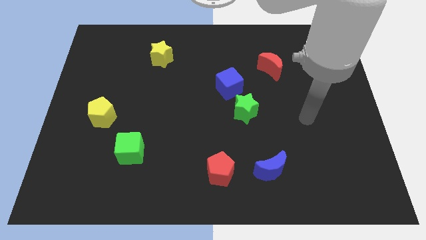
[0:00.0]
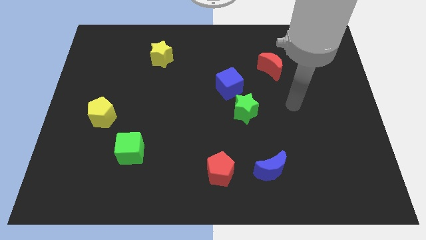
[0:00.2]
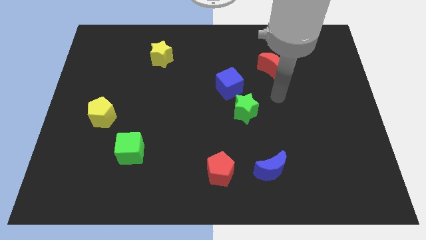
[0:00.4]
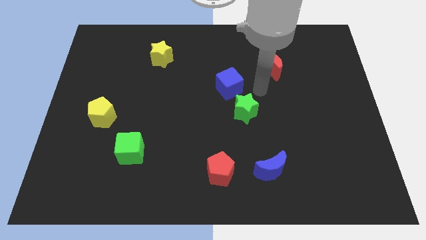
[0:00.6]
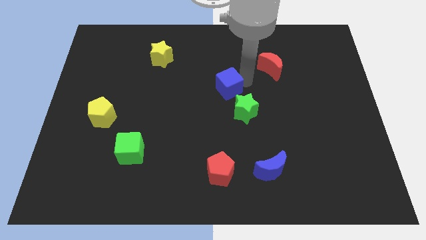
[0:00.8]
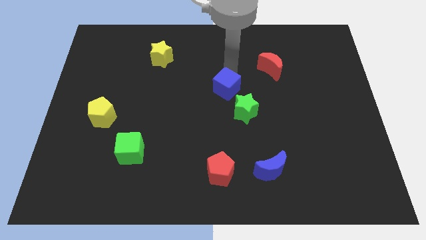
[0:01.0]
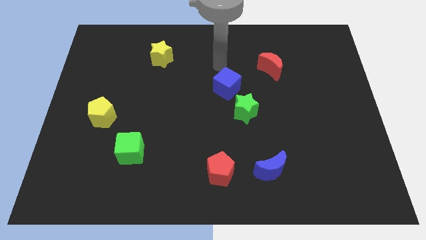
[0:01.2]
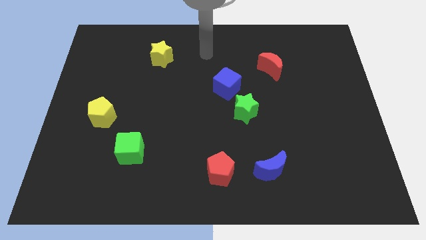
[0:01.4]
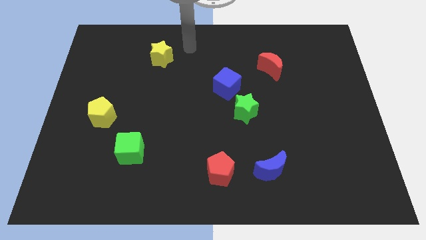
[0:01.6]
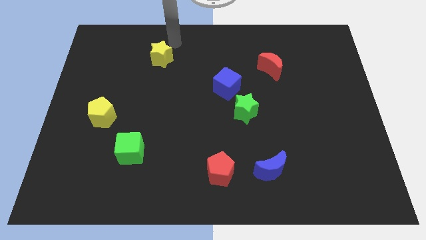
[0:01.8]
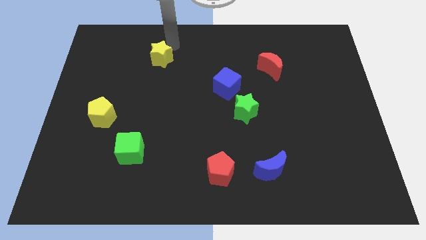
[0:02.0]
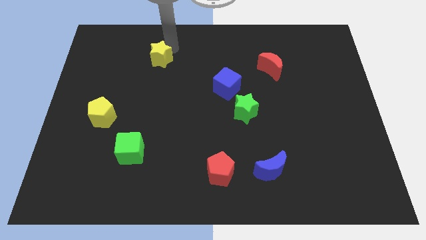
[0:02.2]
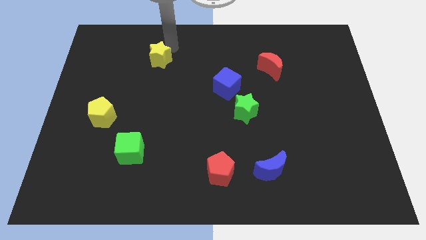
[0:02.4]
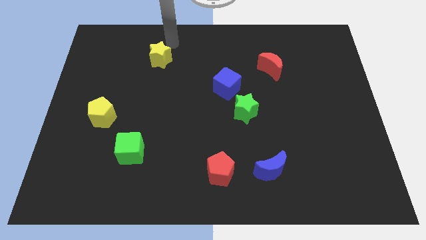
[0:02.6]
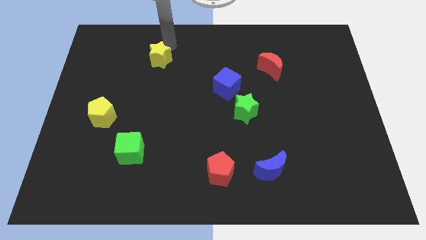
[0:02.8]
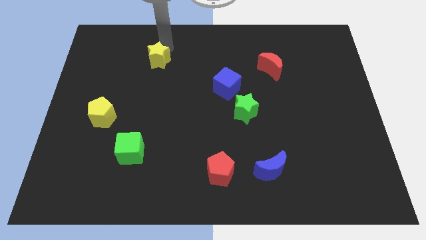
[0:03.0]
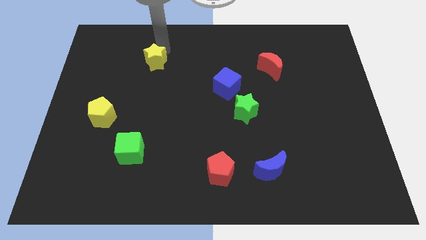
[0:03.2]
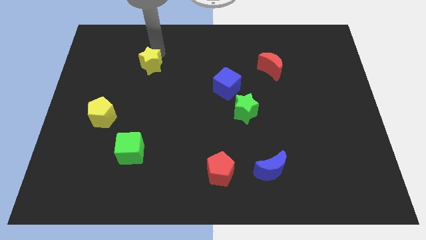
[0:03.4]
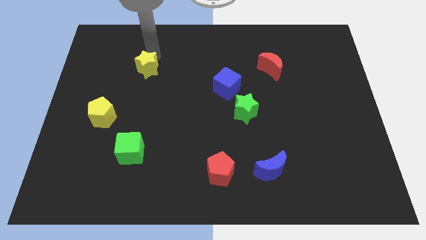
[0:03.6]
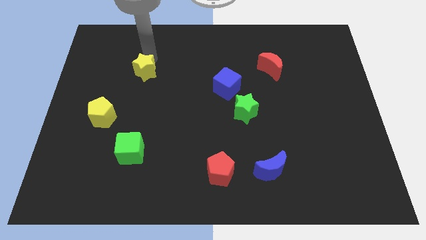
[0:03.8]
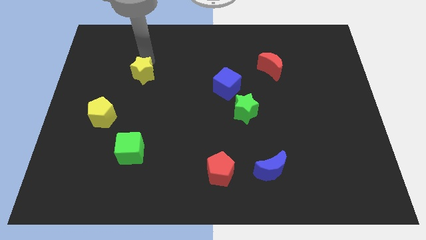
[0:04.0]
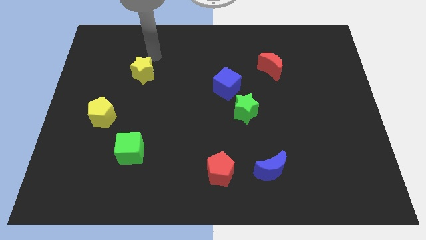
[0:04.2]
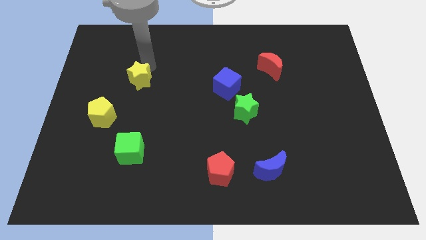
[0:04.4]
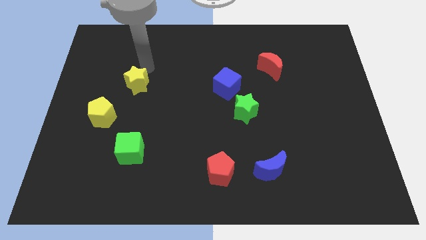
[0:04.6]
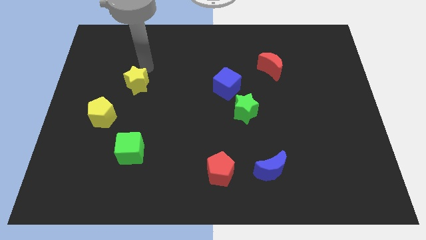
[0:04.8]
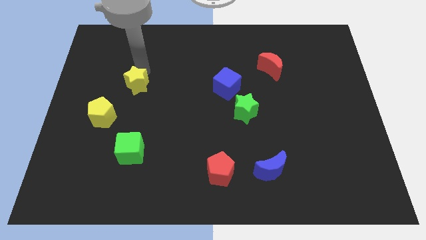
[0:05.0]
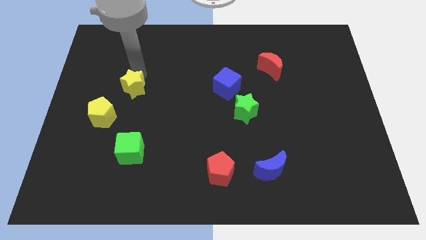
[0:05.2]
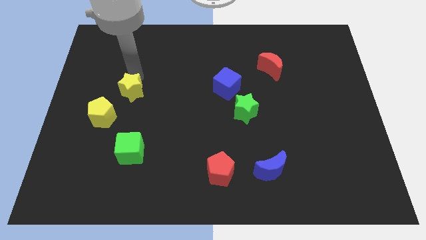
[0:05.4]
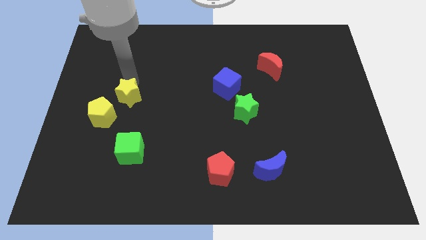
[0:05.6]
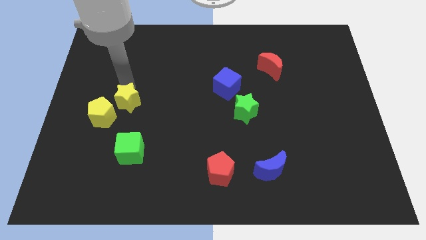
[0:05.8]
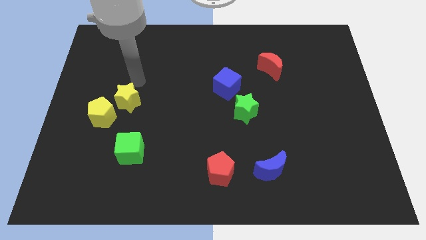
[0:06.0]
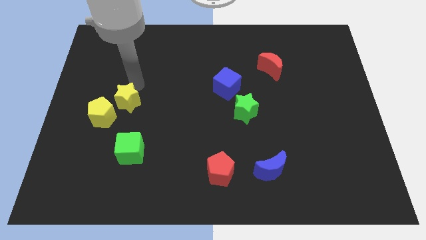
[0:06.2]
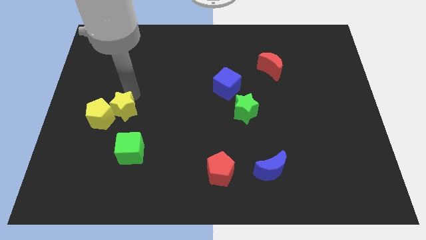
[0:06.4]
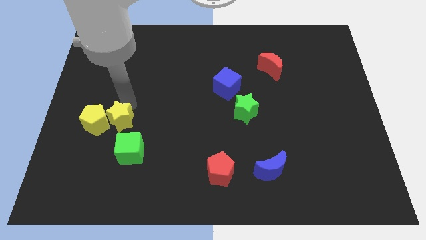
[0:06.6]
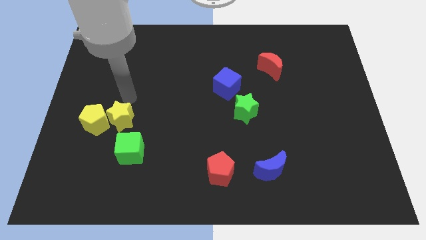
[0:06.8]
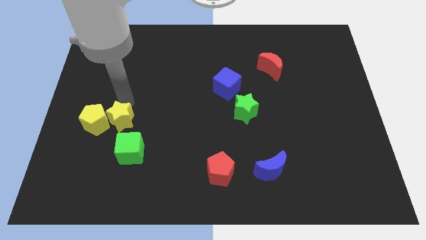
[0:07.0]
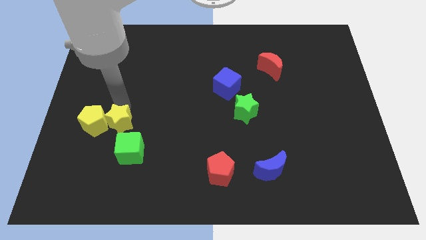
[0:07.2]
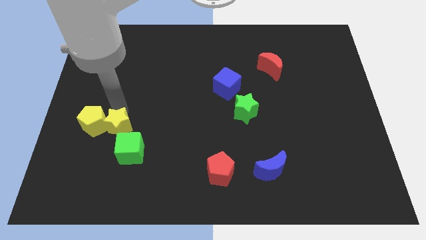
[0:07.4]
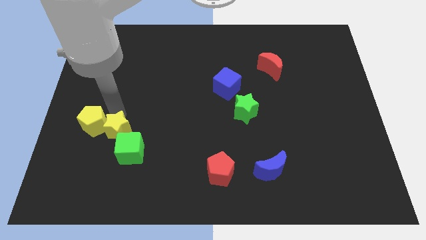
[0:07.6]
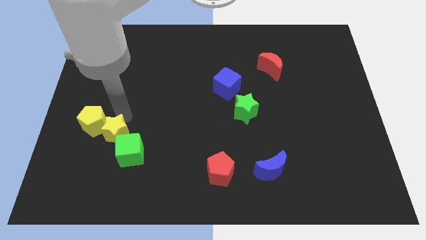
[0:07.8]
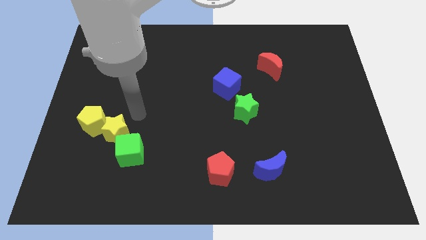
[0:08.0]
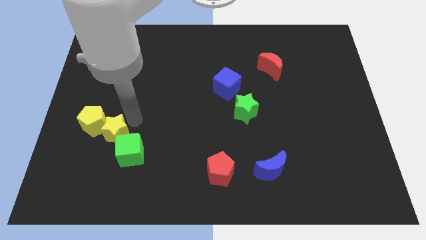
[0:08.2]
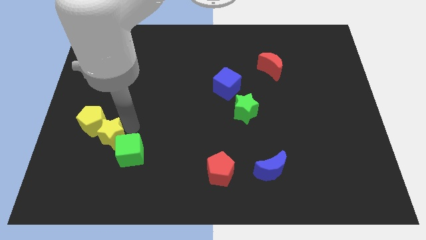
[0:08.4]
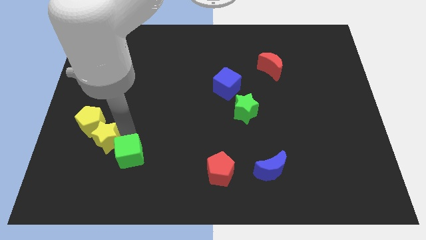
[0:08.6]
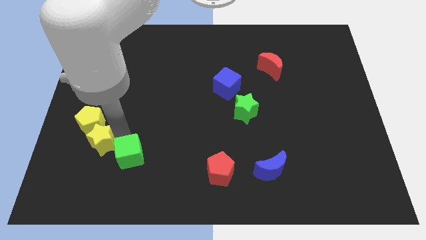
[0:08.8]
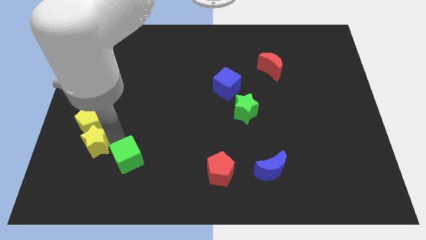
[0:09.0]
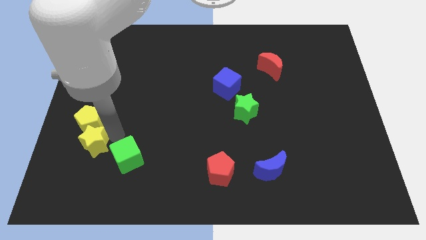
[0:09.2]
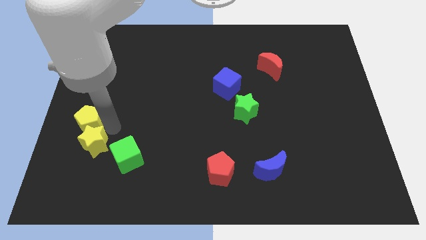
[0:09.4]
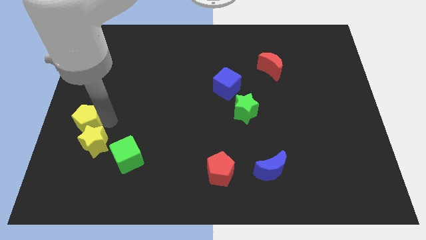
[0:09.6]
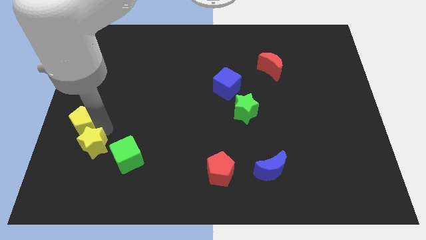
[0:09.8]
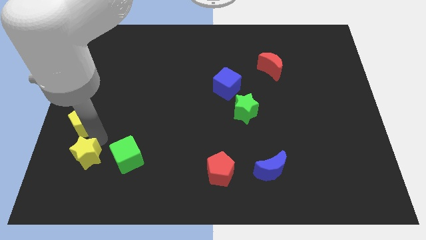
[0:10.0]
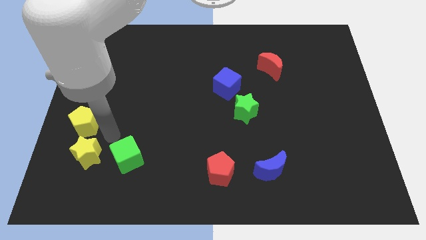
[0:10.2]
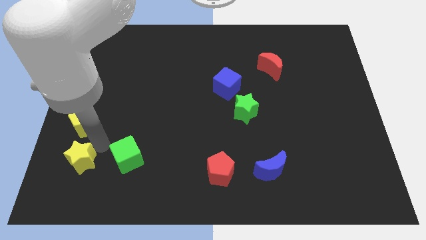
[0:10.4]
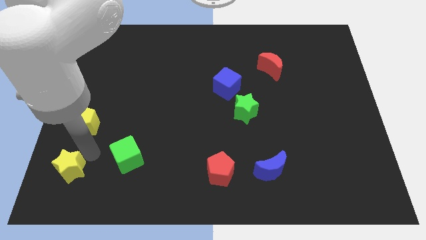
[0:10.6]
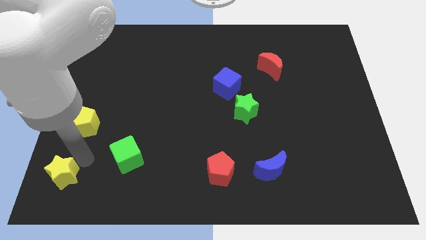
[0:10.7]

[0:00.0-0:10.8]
put the yellow star to the bottom left

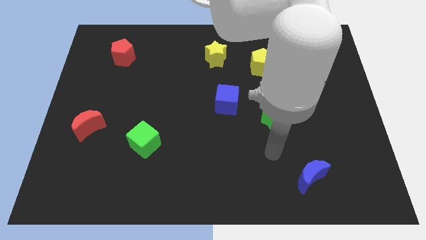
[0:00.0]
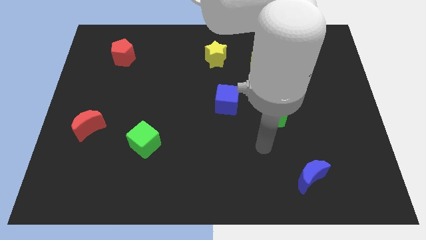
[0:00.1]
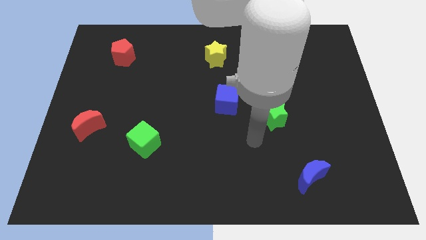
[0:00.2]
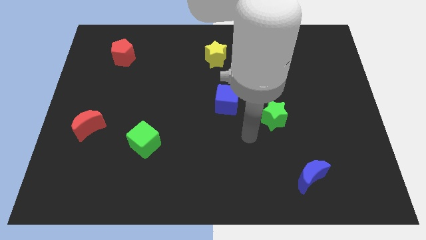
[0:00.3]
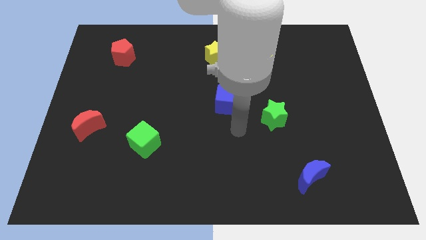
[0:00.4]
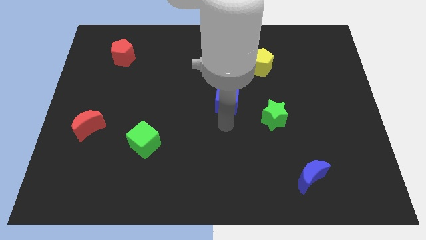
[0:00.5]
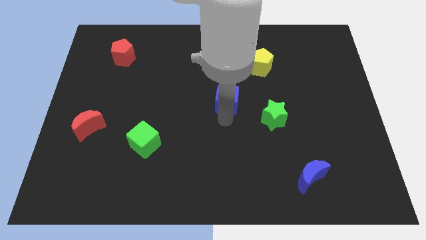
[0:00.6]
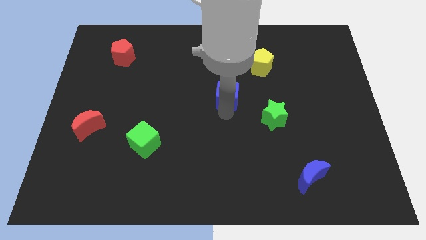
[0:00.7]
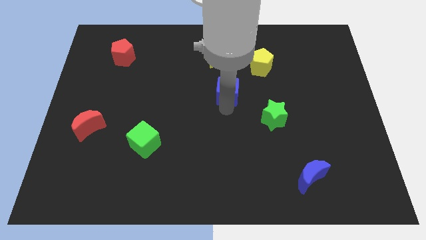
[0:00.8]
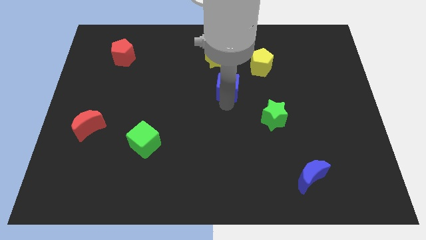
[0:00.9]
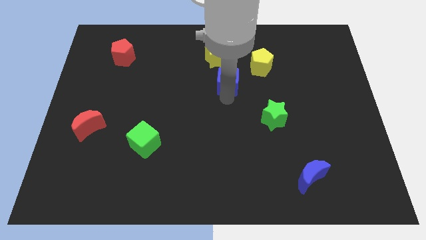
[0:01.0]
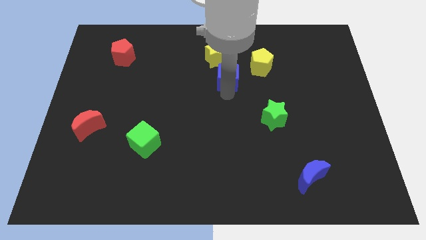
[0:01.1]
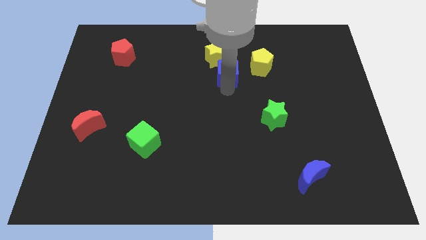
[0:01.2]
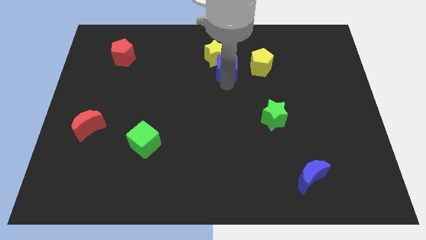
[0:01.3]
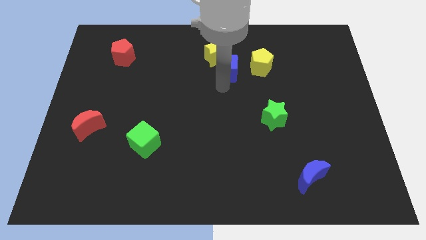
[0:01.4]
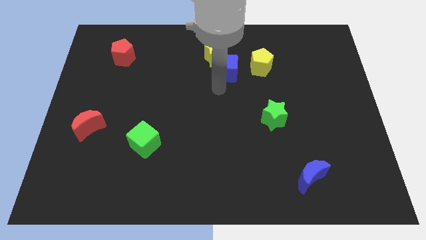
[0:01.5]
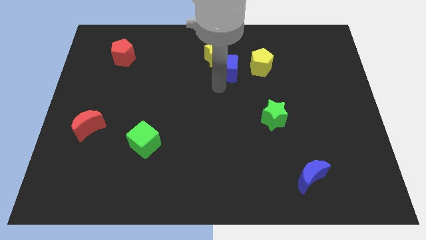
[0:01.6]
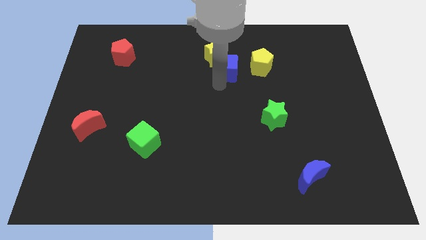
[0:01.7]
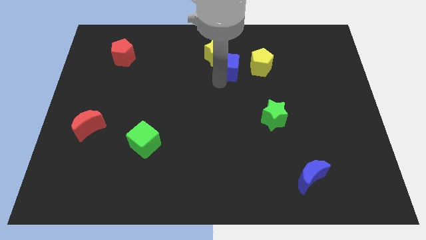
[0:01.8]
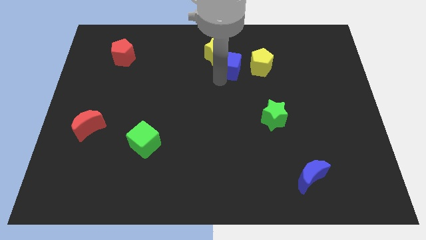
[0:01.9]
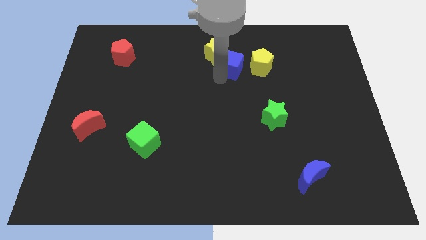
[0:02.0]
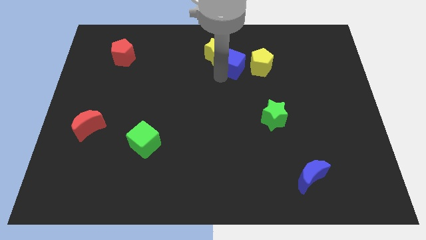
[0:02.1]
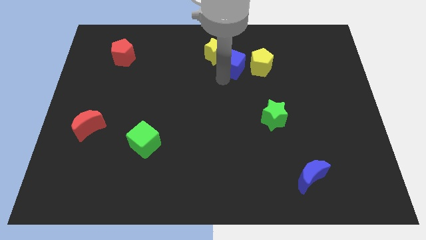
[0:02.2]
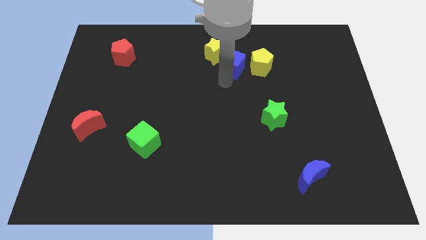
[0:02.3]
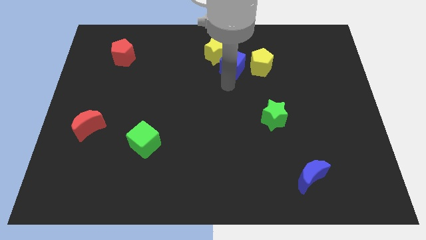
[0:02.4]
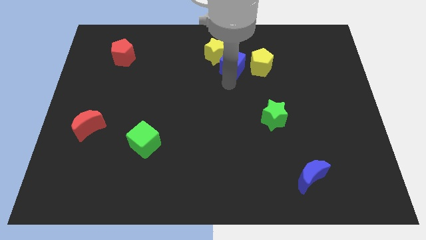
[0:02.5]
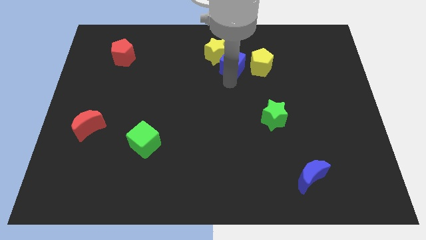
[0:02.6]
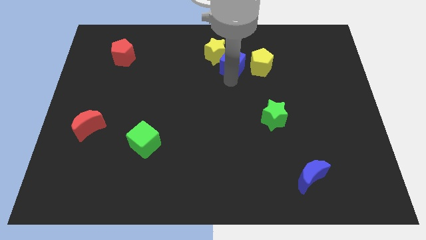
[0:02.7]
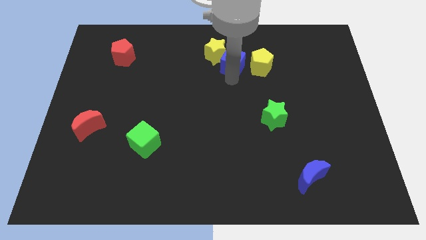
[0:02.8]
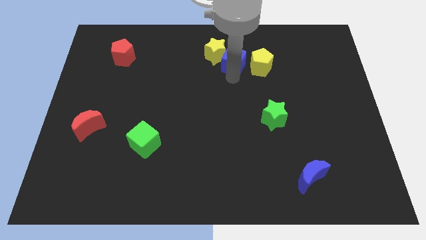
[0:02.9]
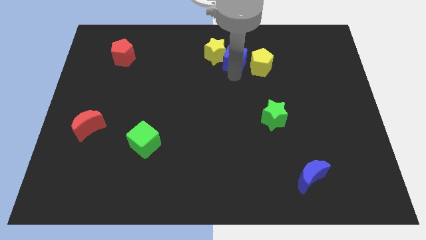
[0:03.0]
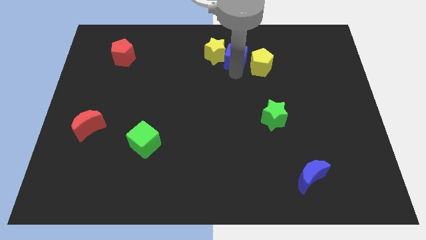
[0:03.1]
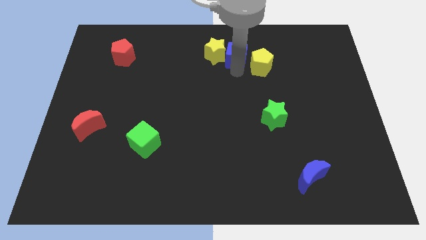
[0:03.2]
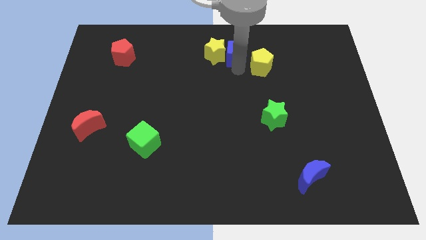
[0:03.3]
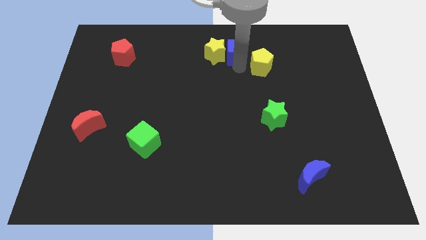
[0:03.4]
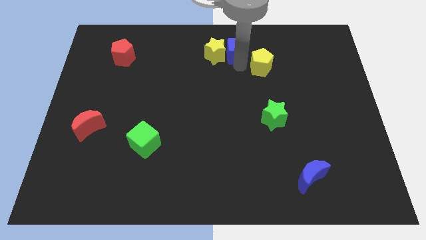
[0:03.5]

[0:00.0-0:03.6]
put the blue cube to the top side
